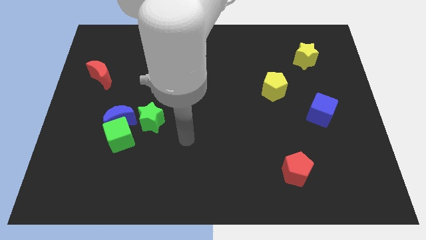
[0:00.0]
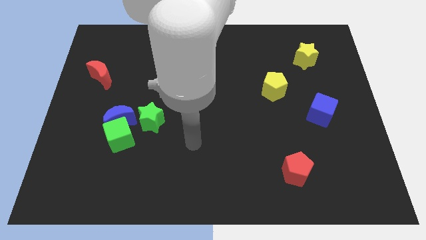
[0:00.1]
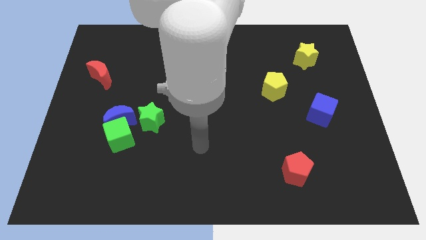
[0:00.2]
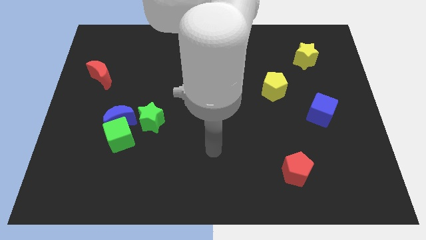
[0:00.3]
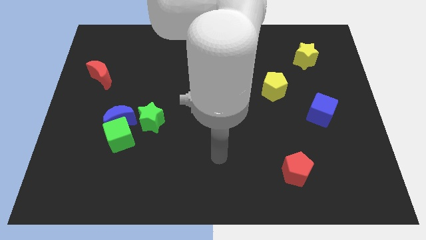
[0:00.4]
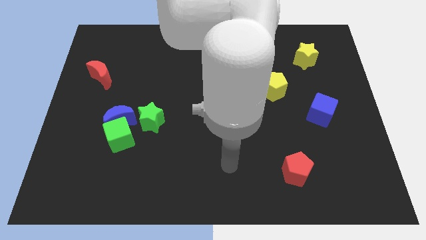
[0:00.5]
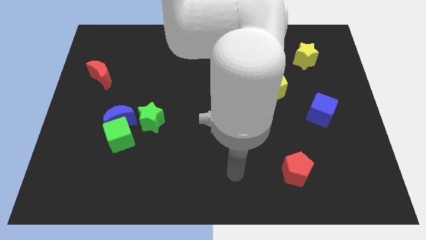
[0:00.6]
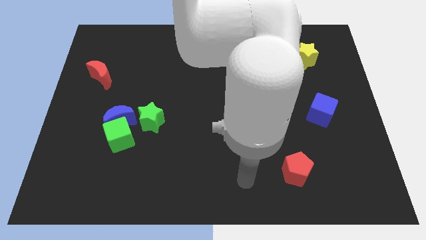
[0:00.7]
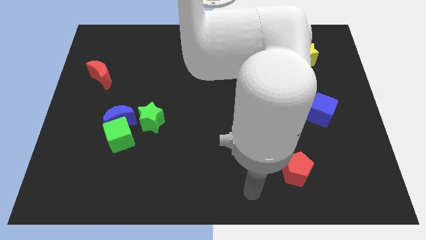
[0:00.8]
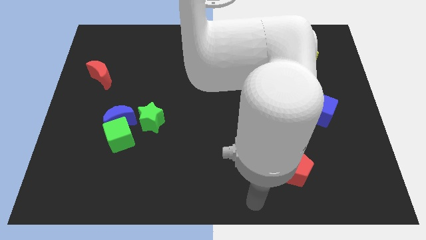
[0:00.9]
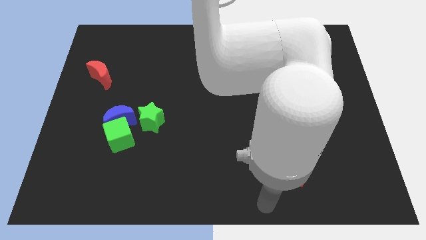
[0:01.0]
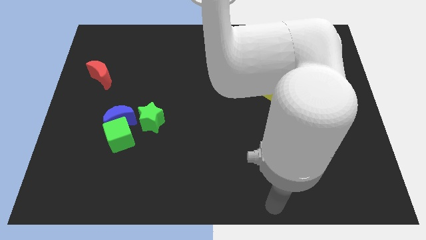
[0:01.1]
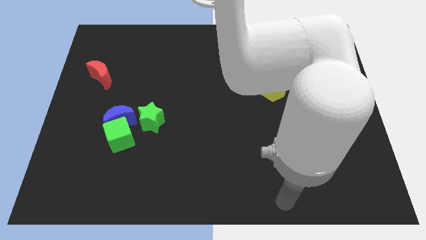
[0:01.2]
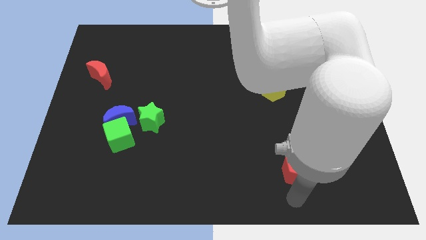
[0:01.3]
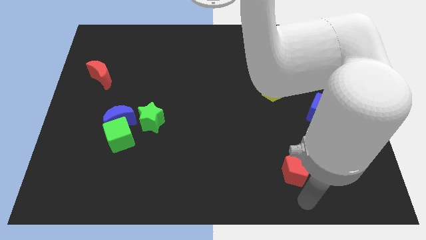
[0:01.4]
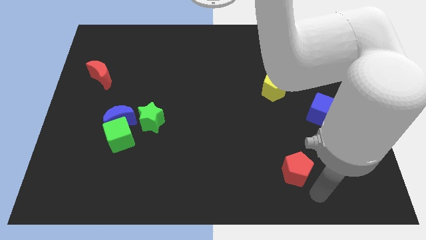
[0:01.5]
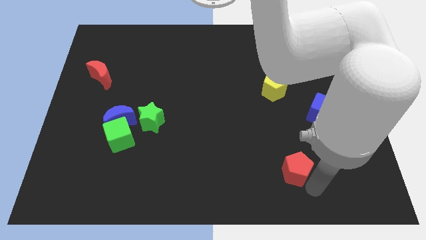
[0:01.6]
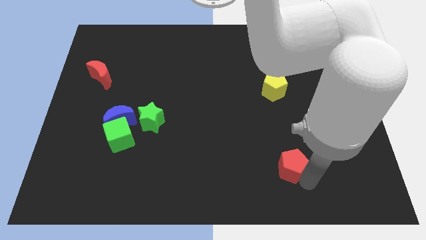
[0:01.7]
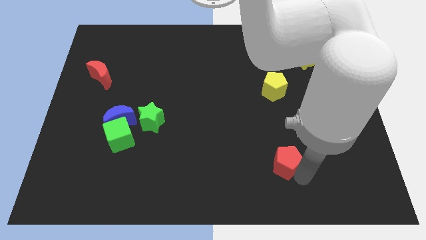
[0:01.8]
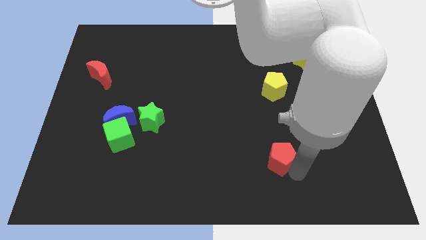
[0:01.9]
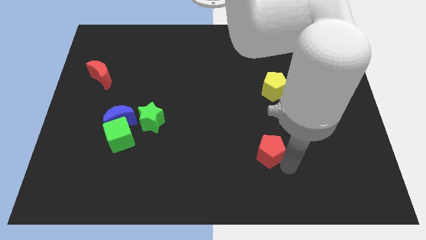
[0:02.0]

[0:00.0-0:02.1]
push the red pentagon a little up and then left

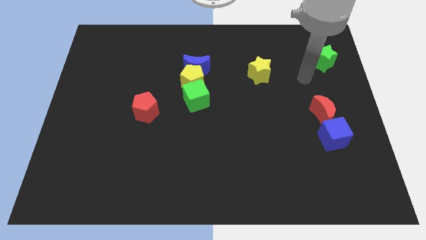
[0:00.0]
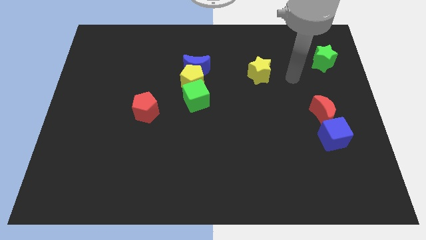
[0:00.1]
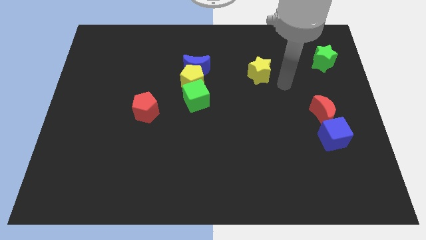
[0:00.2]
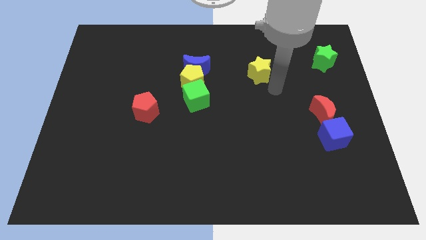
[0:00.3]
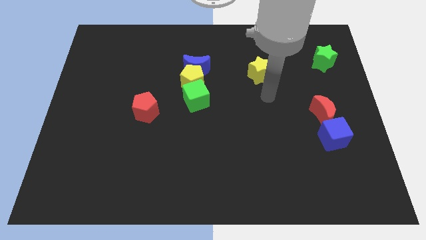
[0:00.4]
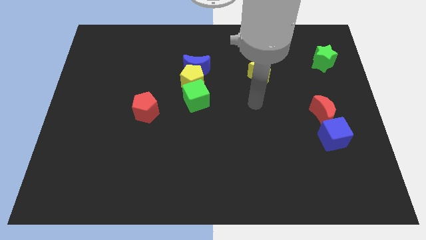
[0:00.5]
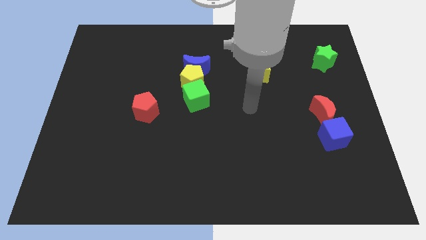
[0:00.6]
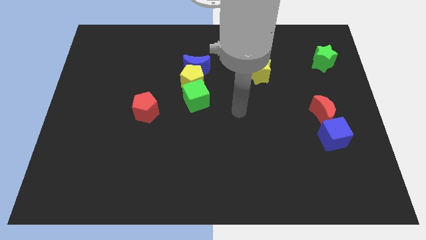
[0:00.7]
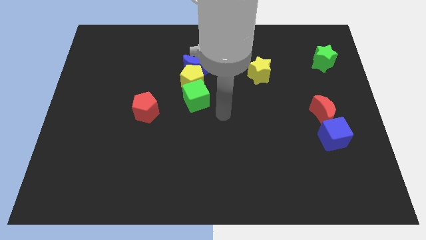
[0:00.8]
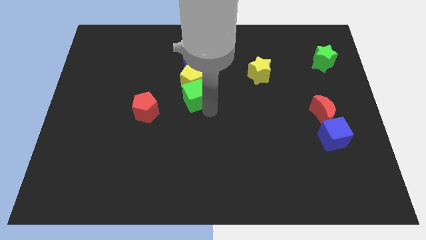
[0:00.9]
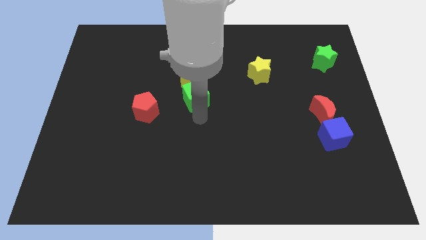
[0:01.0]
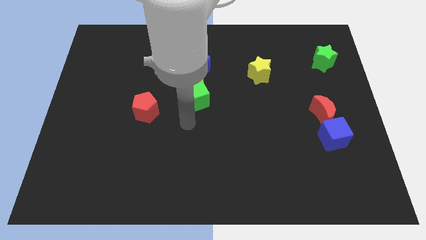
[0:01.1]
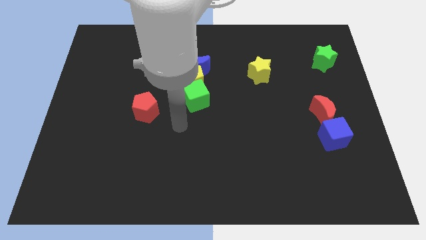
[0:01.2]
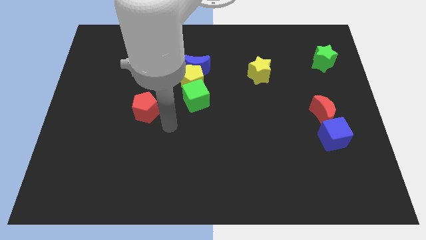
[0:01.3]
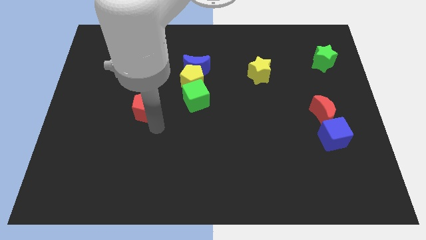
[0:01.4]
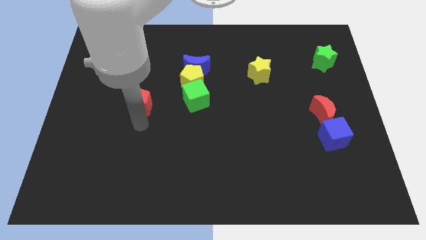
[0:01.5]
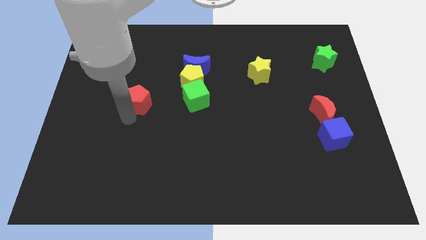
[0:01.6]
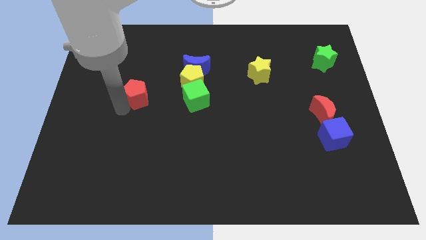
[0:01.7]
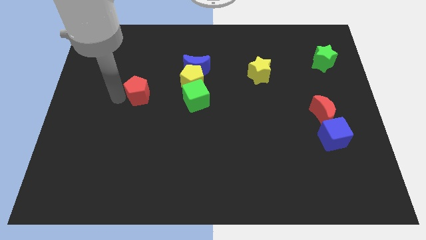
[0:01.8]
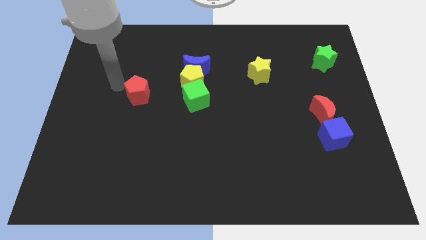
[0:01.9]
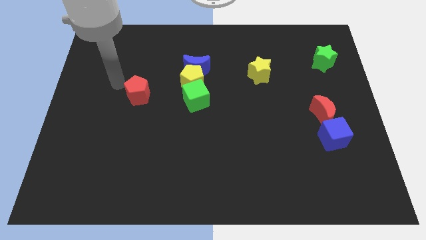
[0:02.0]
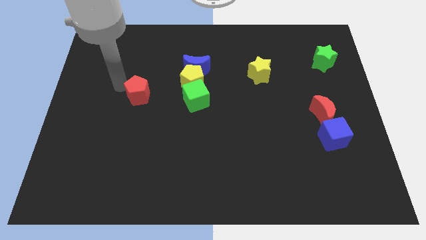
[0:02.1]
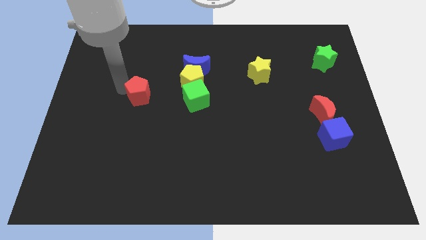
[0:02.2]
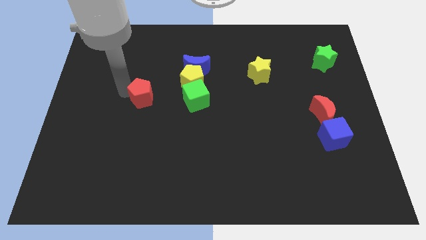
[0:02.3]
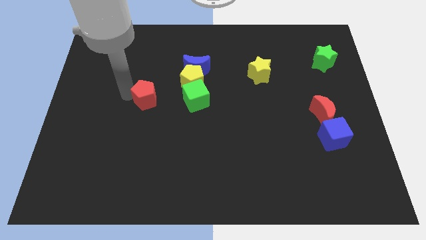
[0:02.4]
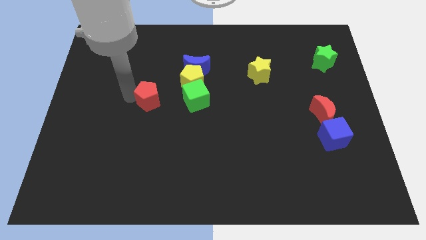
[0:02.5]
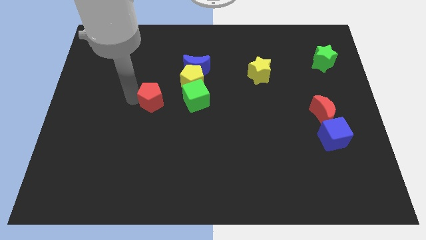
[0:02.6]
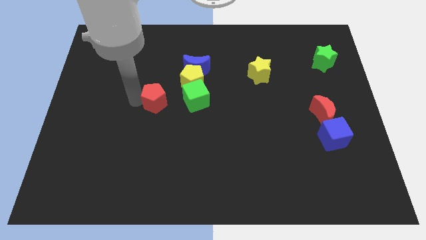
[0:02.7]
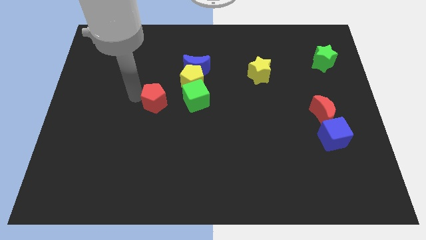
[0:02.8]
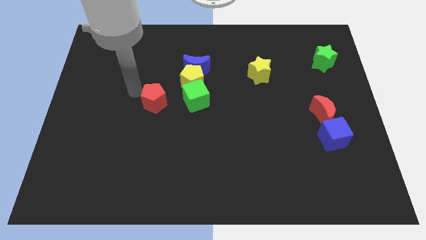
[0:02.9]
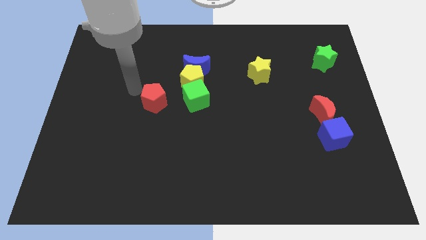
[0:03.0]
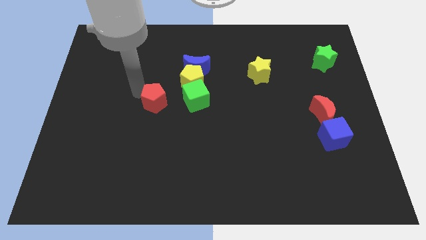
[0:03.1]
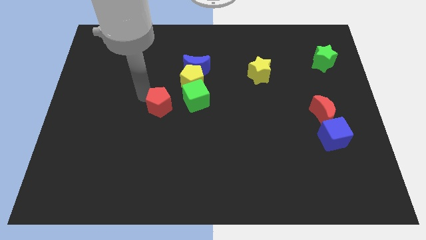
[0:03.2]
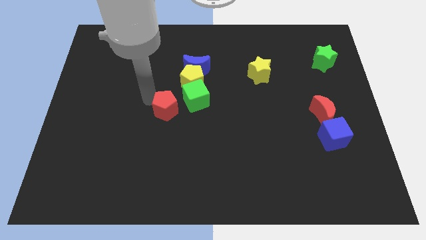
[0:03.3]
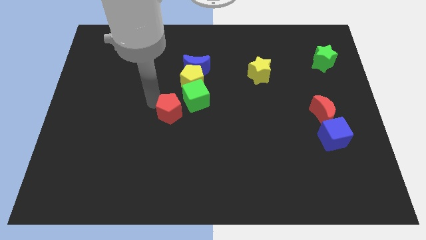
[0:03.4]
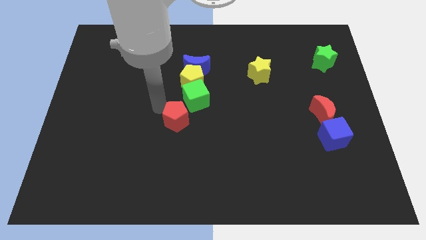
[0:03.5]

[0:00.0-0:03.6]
move the red pentagon to the right somewhat

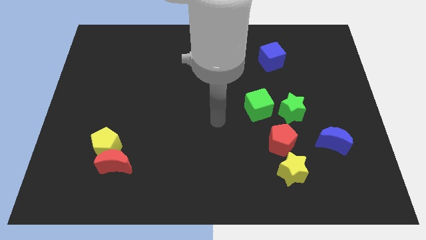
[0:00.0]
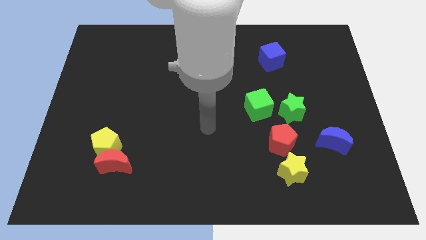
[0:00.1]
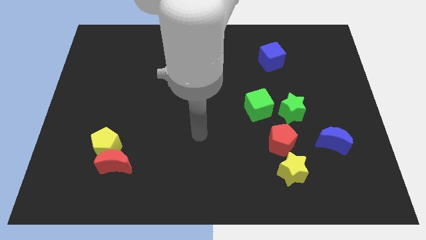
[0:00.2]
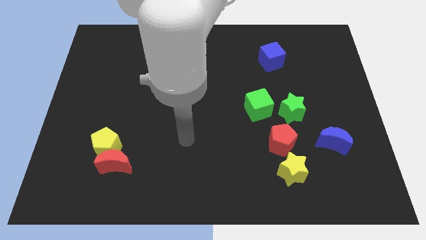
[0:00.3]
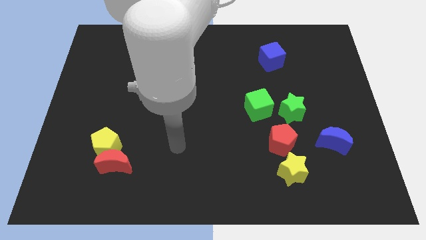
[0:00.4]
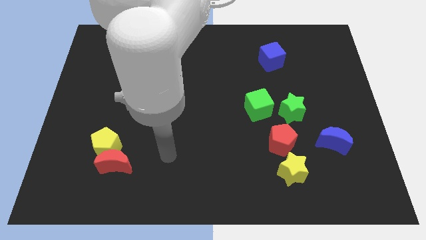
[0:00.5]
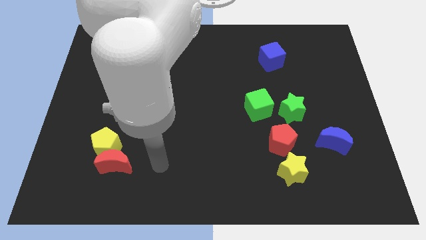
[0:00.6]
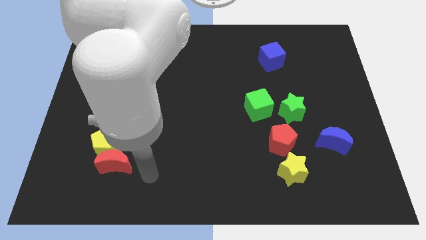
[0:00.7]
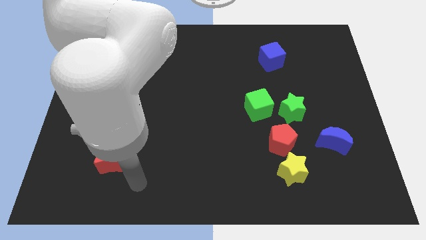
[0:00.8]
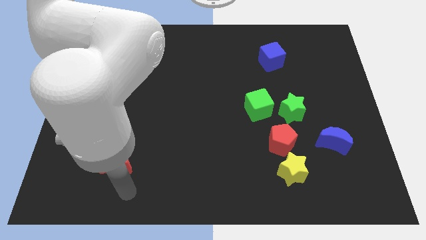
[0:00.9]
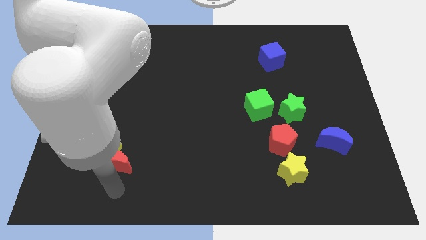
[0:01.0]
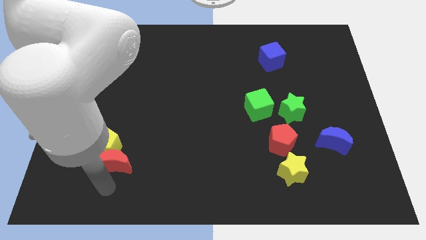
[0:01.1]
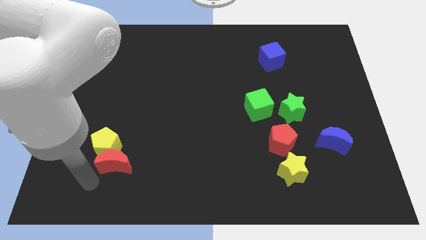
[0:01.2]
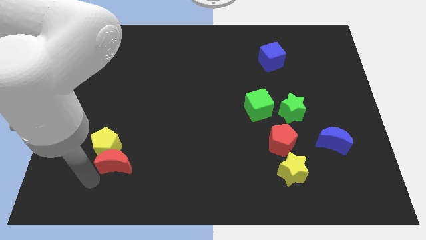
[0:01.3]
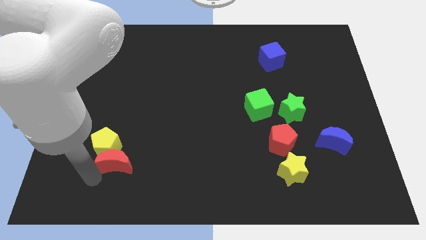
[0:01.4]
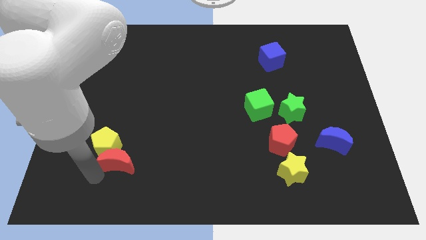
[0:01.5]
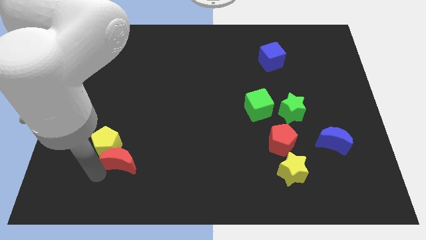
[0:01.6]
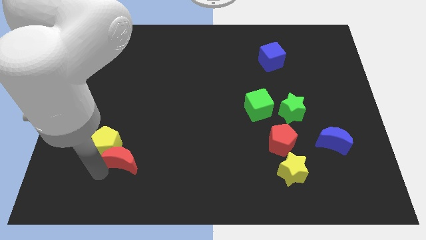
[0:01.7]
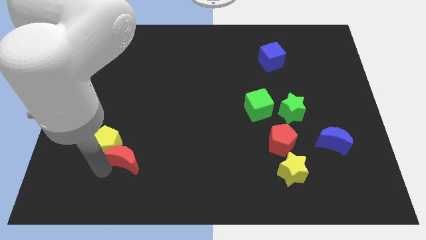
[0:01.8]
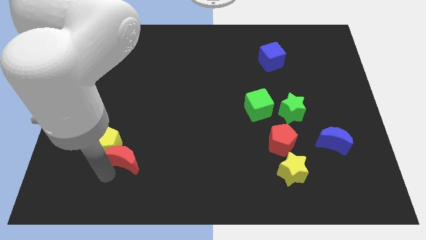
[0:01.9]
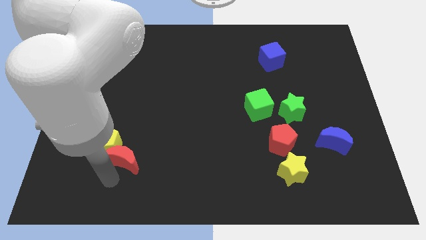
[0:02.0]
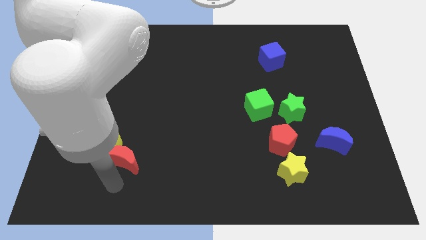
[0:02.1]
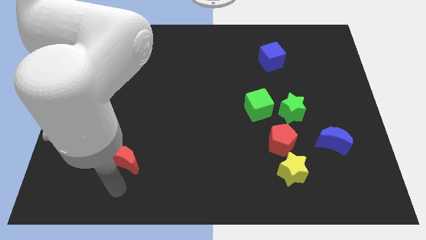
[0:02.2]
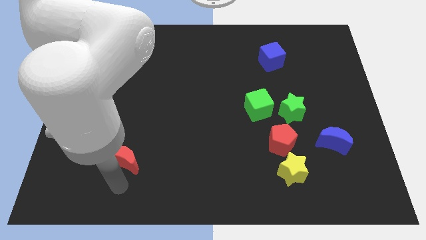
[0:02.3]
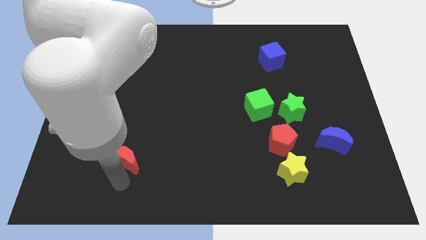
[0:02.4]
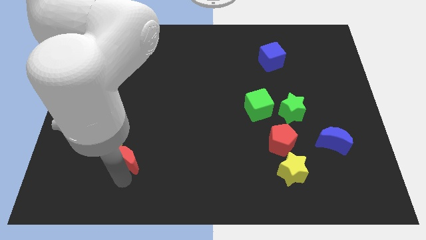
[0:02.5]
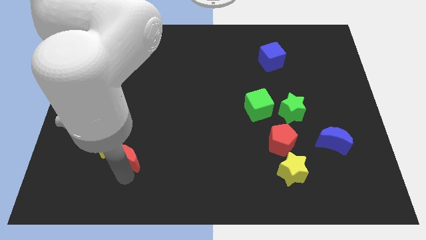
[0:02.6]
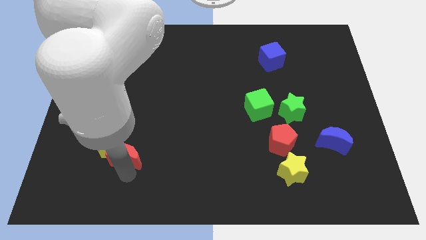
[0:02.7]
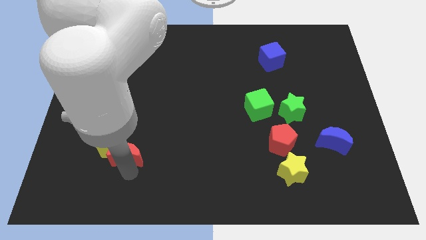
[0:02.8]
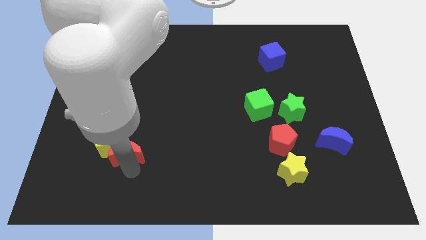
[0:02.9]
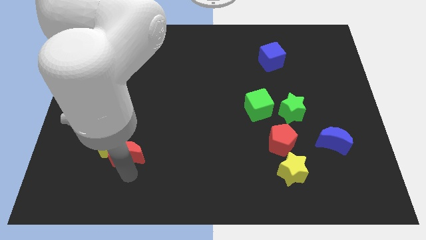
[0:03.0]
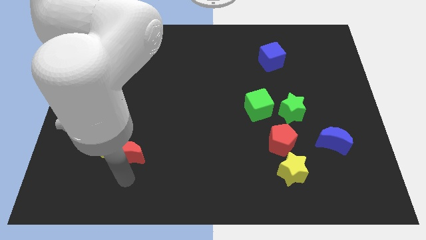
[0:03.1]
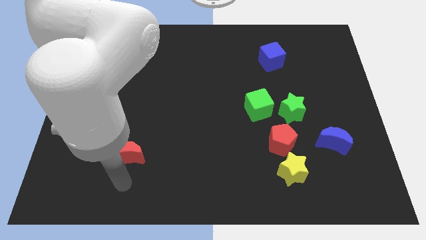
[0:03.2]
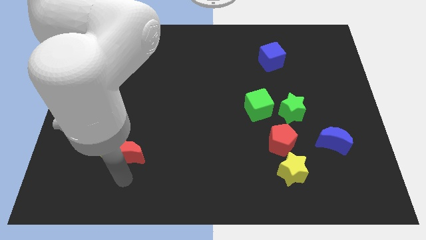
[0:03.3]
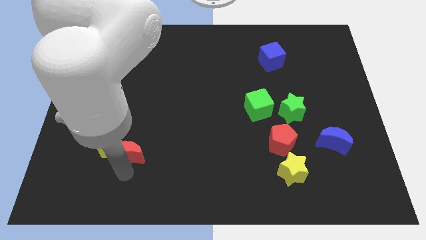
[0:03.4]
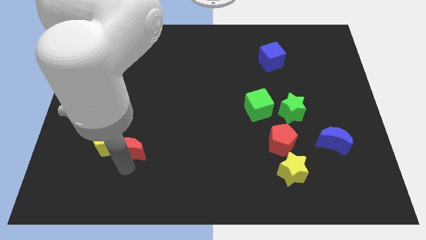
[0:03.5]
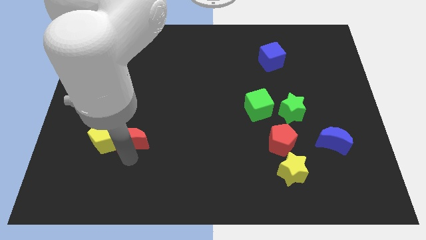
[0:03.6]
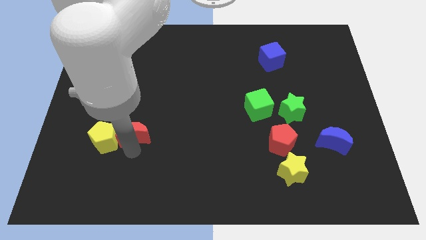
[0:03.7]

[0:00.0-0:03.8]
push the red moon somewhat upwards
